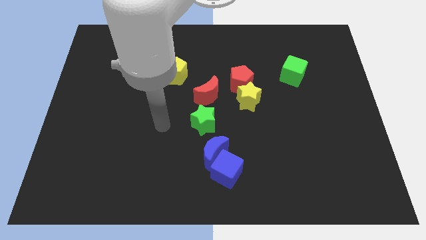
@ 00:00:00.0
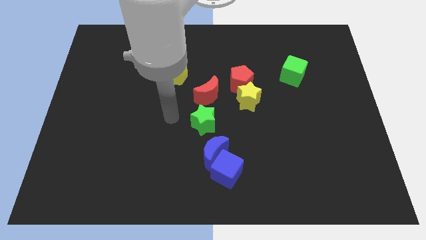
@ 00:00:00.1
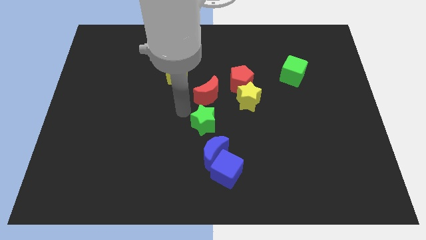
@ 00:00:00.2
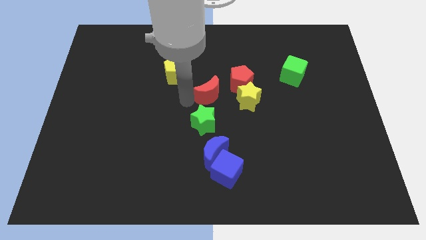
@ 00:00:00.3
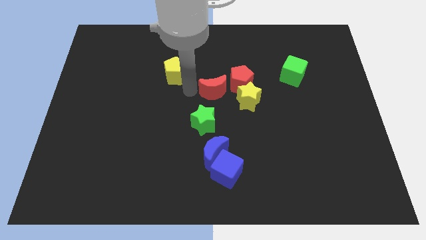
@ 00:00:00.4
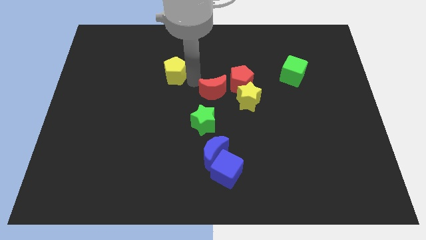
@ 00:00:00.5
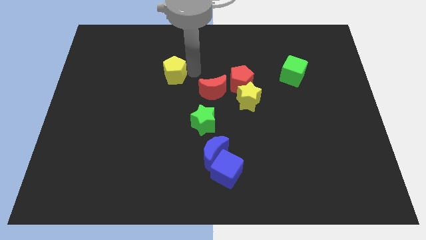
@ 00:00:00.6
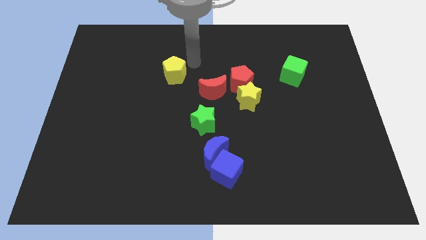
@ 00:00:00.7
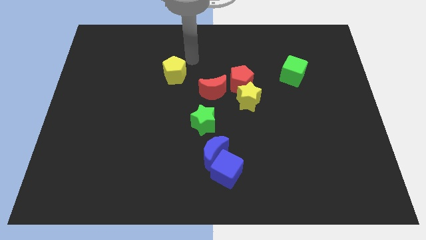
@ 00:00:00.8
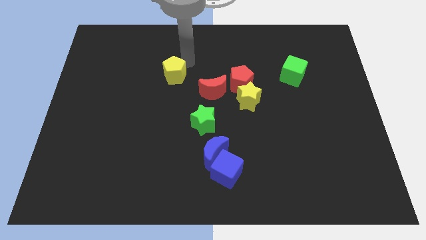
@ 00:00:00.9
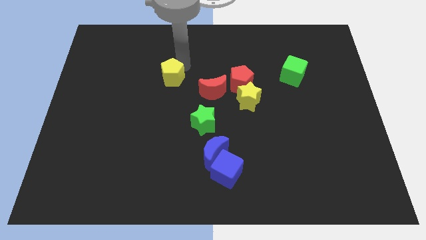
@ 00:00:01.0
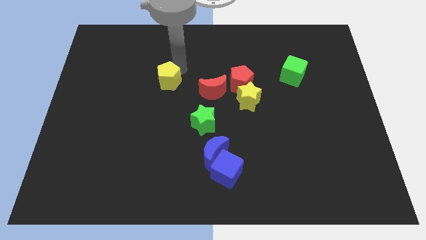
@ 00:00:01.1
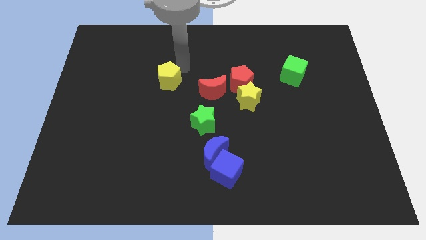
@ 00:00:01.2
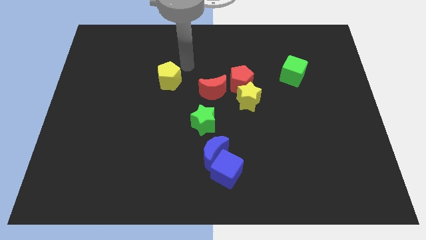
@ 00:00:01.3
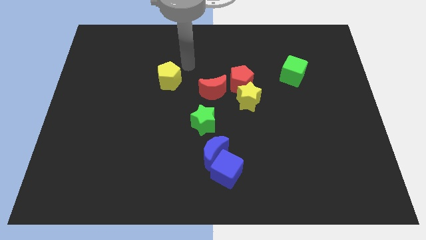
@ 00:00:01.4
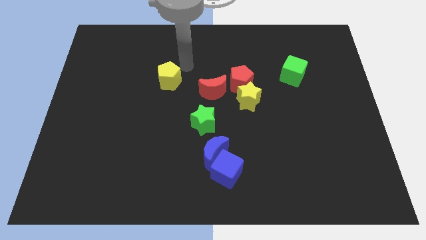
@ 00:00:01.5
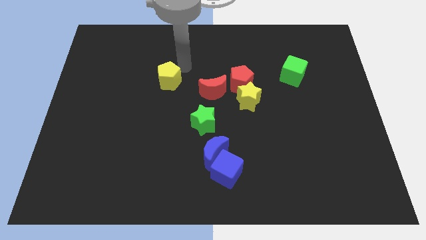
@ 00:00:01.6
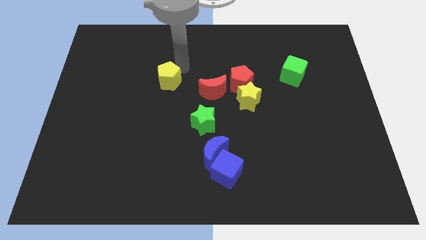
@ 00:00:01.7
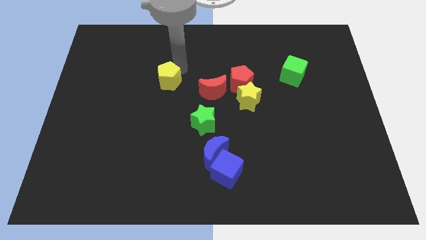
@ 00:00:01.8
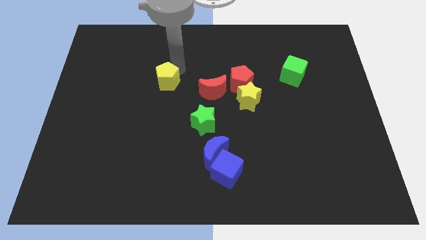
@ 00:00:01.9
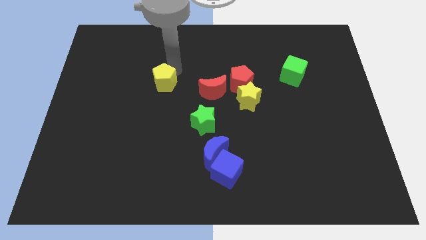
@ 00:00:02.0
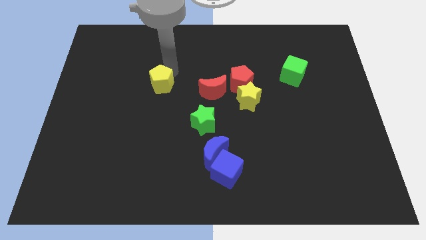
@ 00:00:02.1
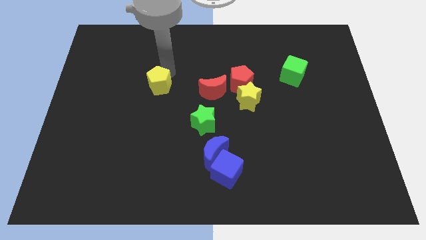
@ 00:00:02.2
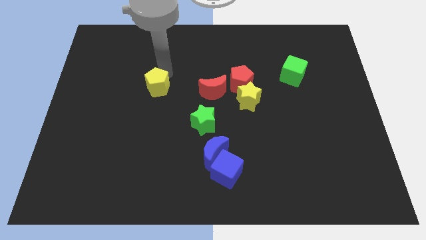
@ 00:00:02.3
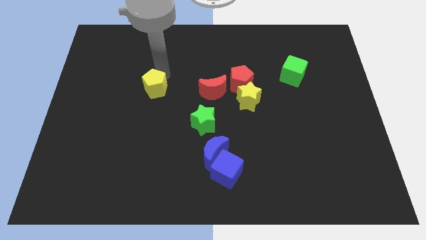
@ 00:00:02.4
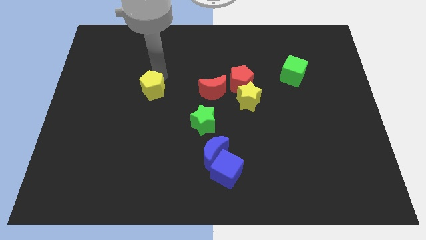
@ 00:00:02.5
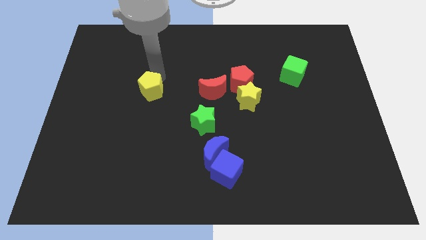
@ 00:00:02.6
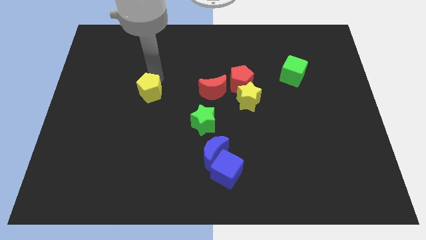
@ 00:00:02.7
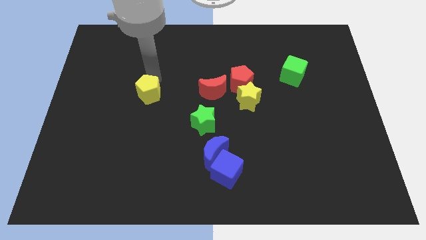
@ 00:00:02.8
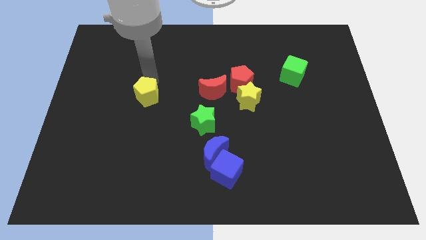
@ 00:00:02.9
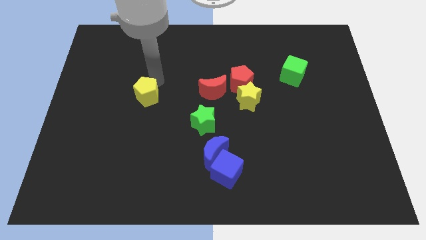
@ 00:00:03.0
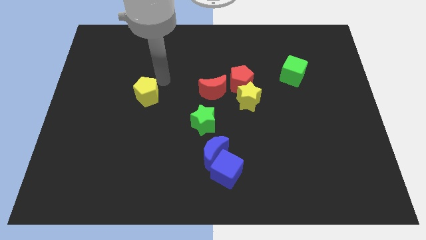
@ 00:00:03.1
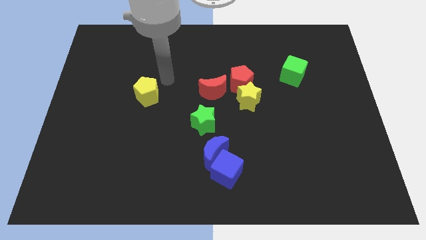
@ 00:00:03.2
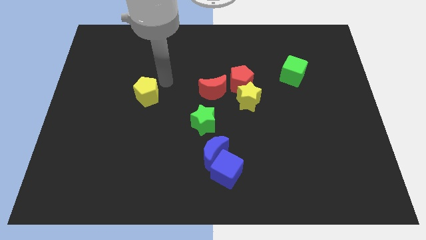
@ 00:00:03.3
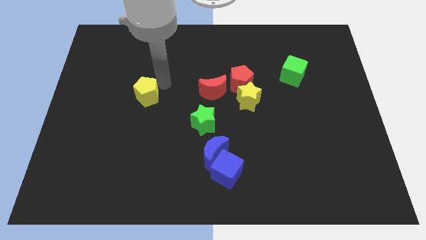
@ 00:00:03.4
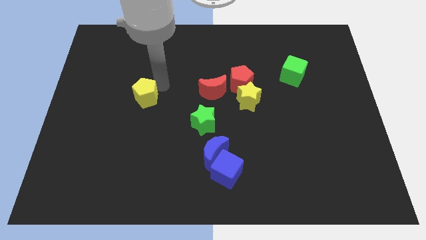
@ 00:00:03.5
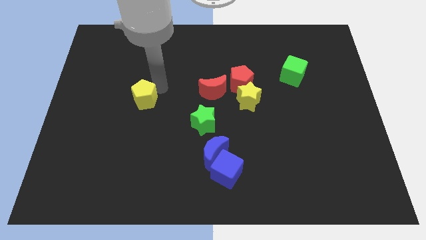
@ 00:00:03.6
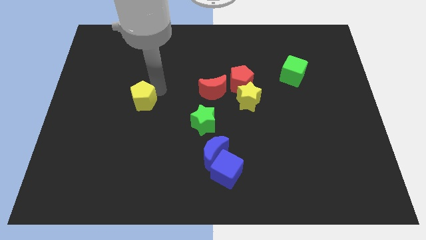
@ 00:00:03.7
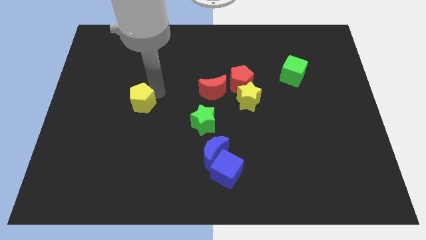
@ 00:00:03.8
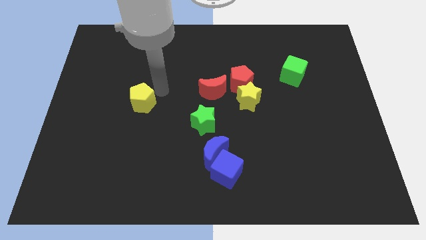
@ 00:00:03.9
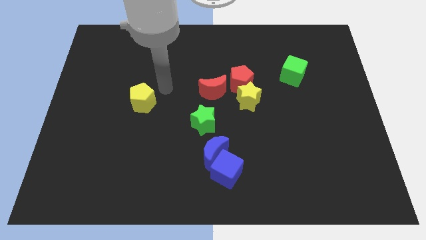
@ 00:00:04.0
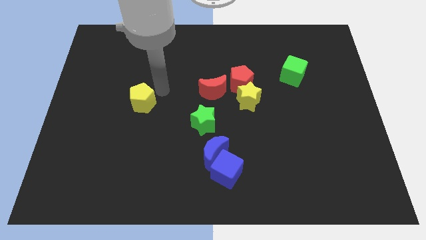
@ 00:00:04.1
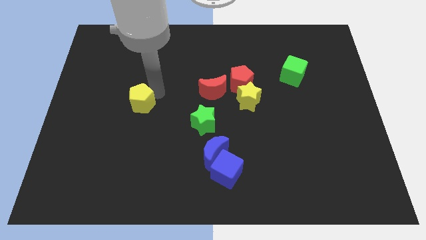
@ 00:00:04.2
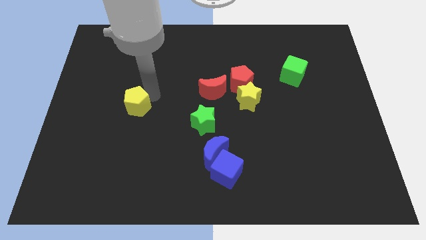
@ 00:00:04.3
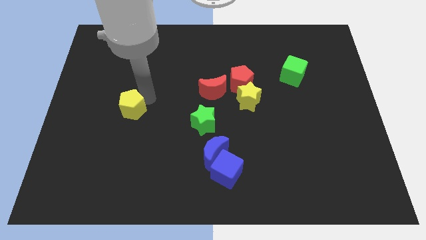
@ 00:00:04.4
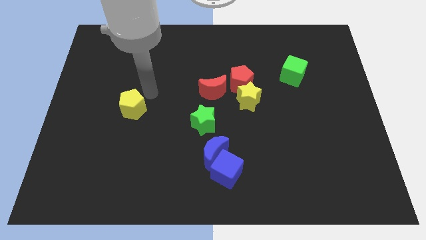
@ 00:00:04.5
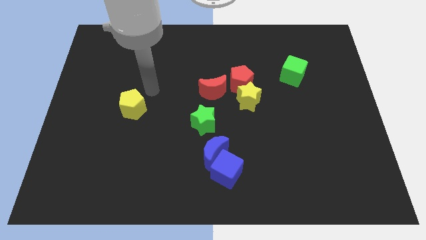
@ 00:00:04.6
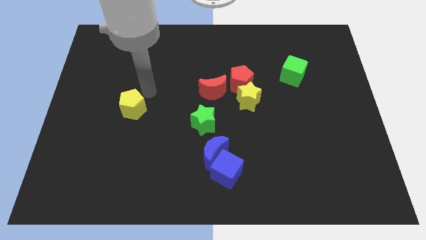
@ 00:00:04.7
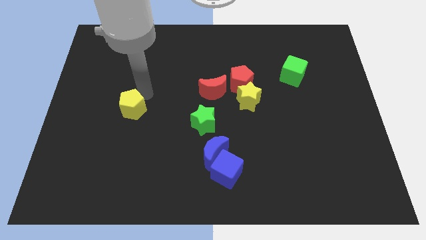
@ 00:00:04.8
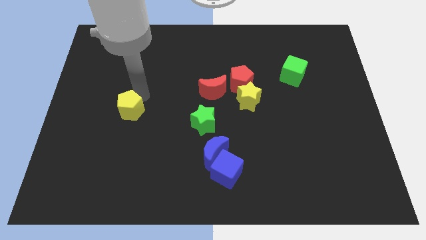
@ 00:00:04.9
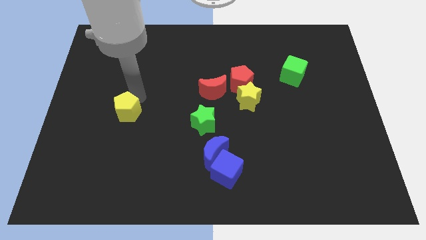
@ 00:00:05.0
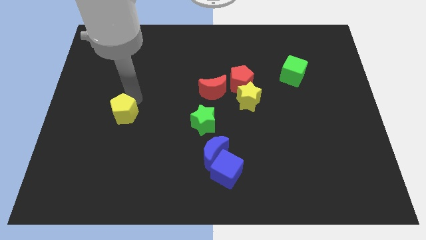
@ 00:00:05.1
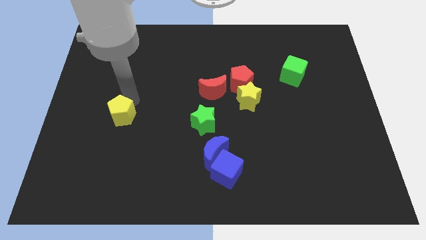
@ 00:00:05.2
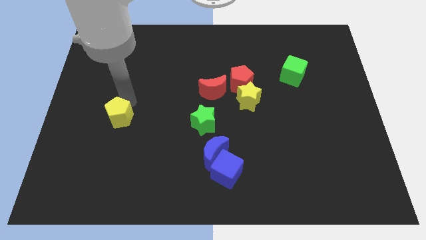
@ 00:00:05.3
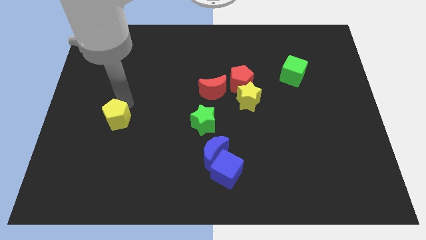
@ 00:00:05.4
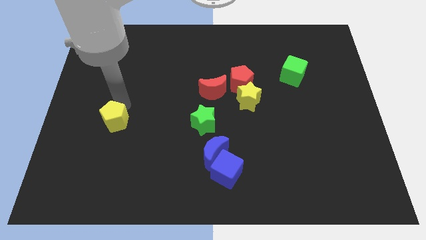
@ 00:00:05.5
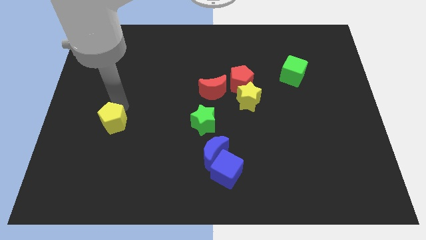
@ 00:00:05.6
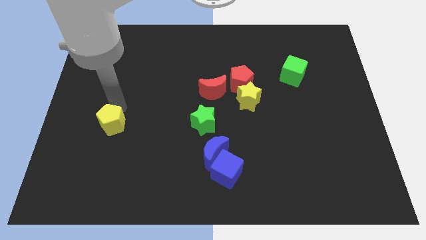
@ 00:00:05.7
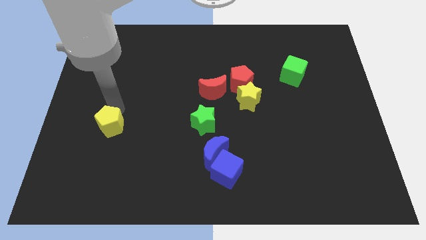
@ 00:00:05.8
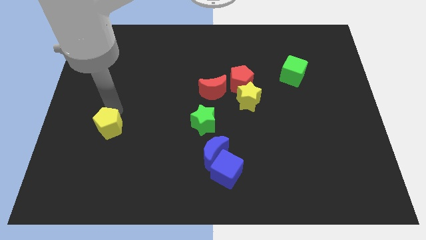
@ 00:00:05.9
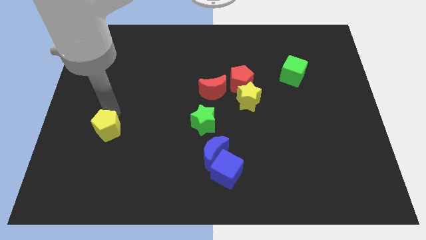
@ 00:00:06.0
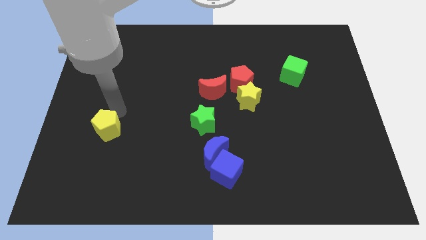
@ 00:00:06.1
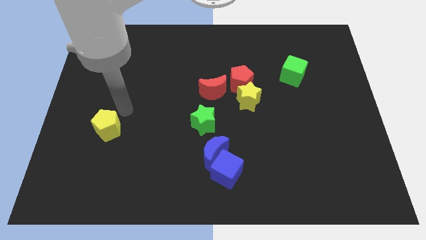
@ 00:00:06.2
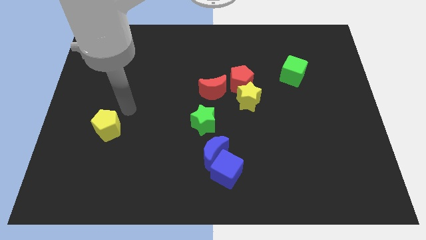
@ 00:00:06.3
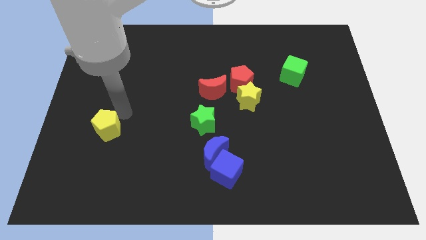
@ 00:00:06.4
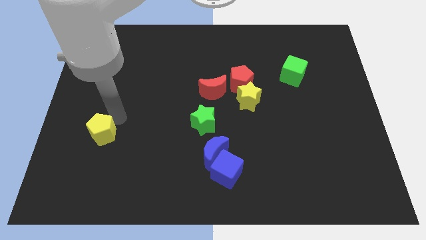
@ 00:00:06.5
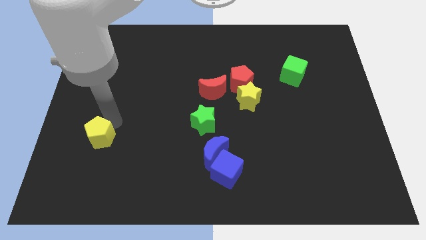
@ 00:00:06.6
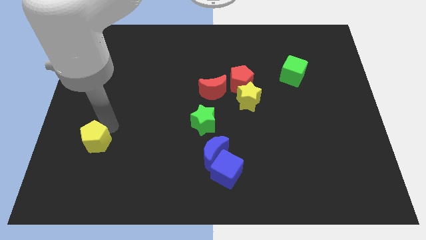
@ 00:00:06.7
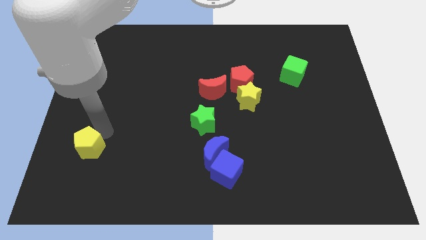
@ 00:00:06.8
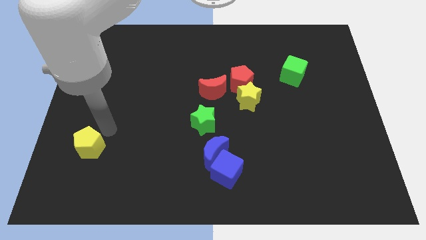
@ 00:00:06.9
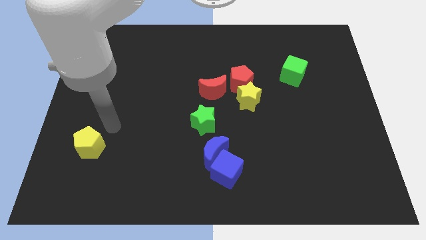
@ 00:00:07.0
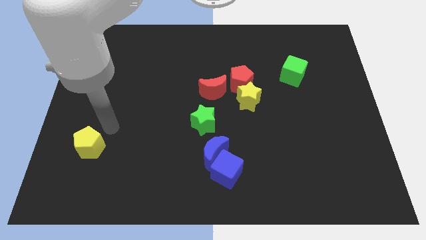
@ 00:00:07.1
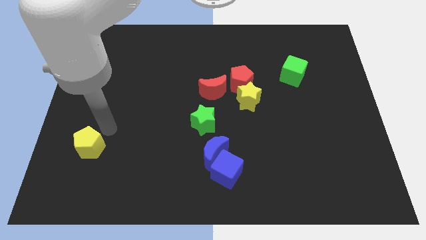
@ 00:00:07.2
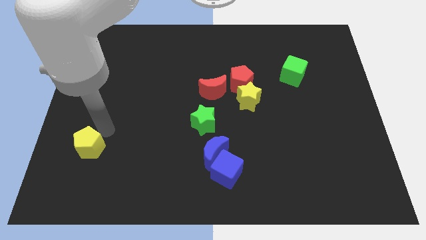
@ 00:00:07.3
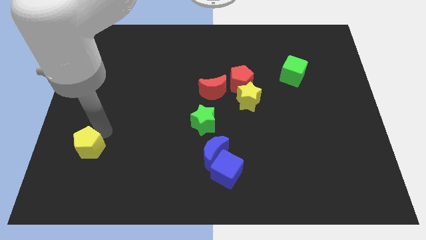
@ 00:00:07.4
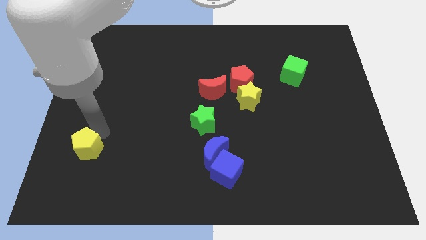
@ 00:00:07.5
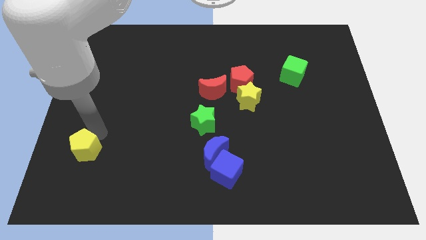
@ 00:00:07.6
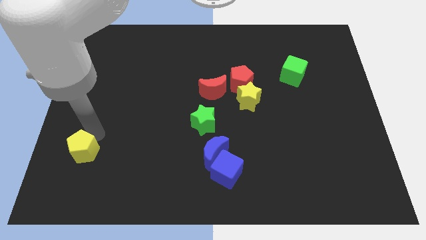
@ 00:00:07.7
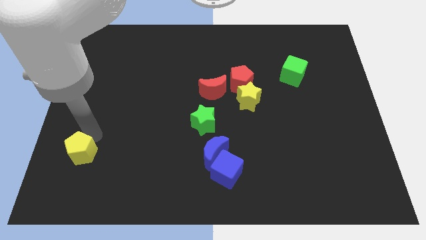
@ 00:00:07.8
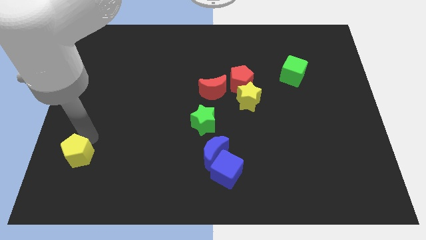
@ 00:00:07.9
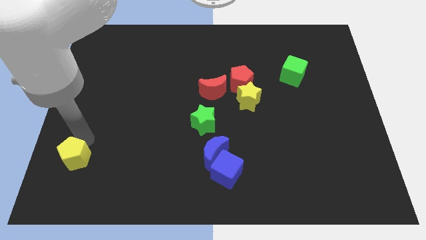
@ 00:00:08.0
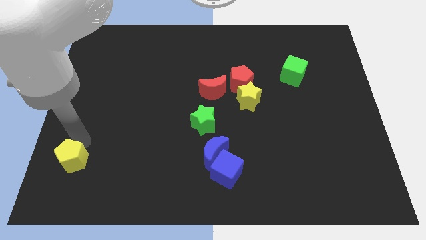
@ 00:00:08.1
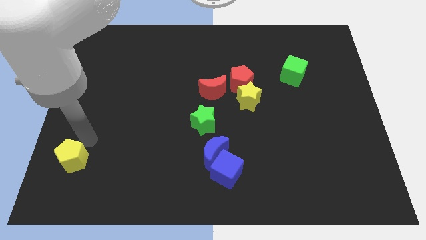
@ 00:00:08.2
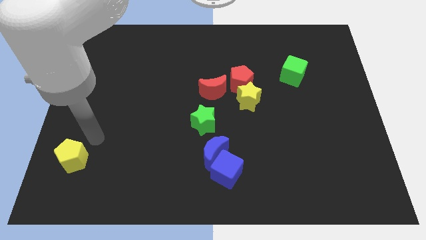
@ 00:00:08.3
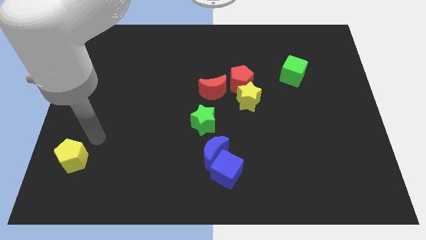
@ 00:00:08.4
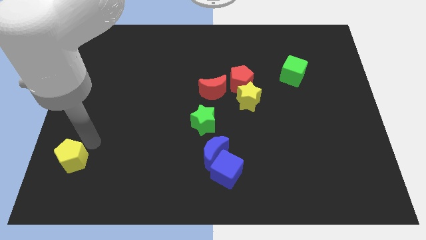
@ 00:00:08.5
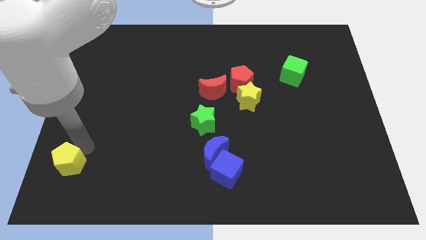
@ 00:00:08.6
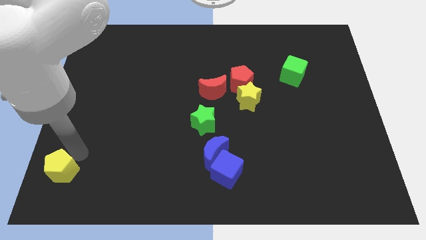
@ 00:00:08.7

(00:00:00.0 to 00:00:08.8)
put the yellow pentagon to the lower left corner
